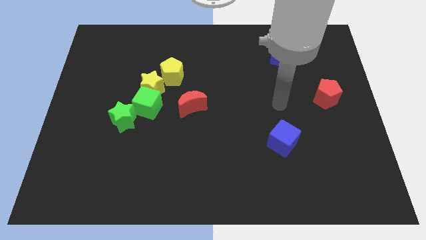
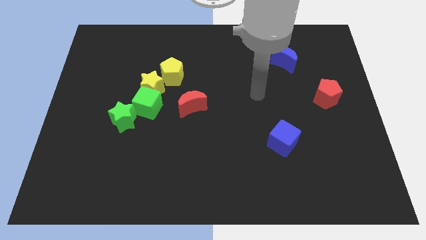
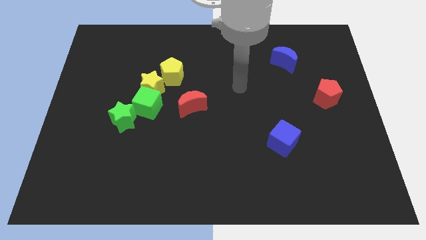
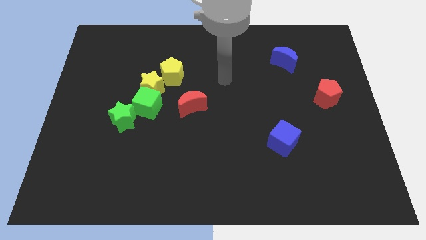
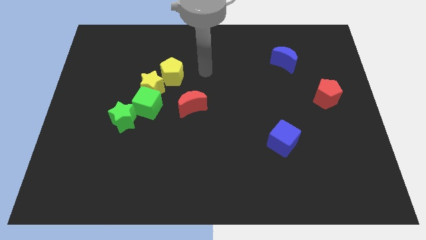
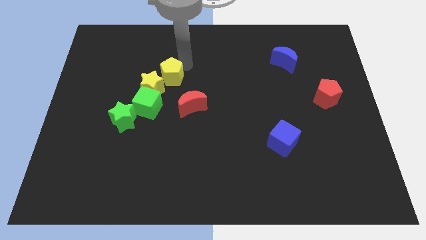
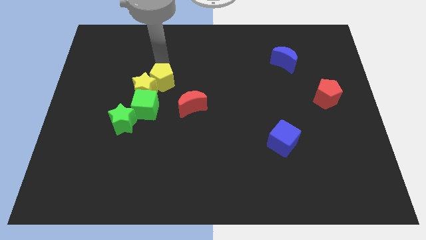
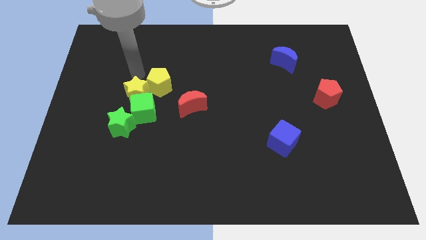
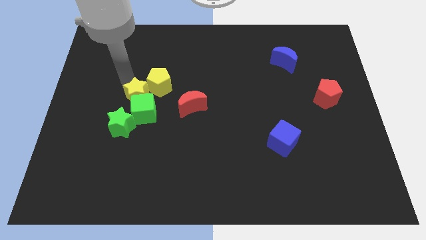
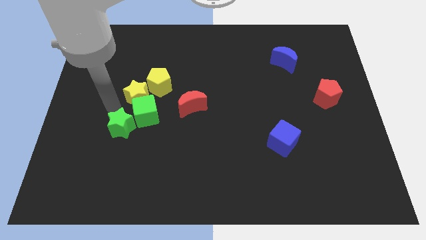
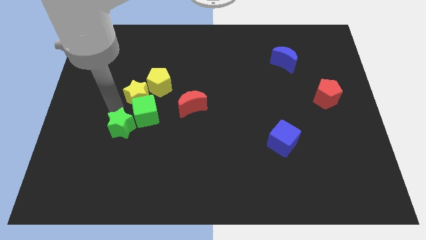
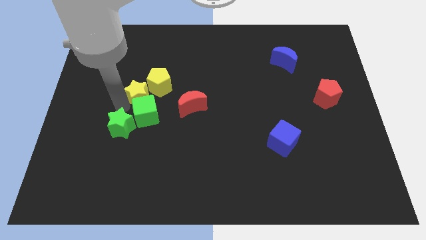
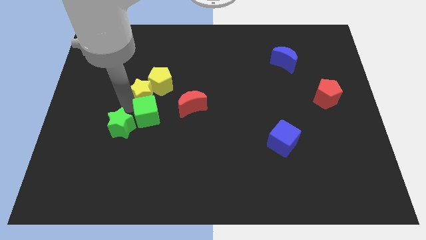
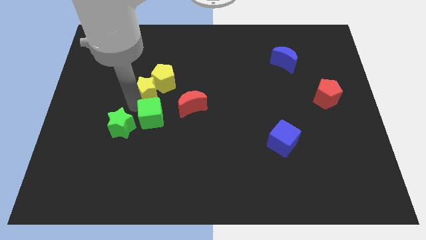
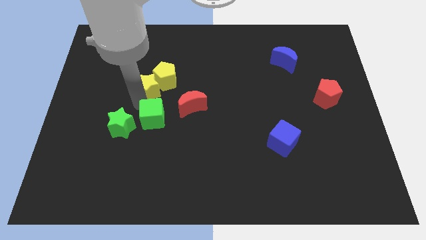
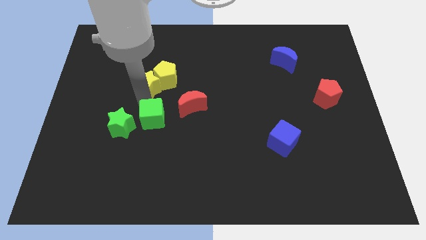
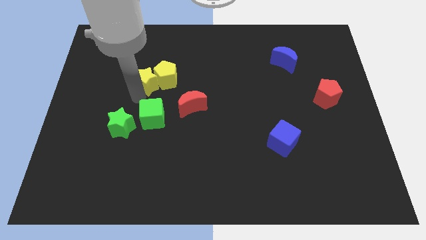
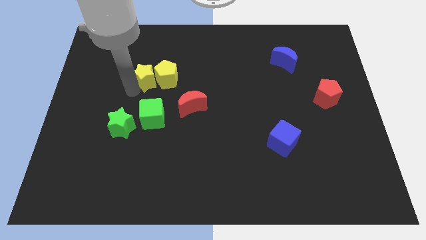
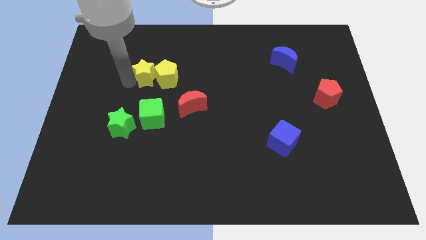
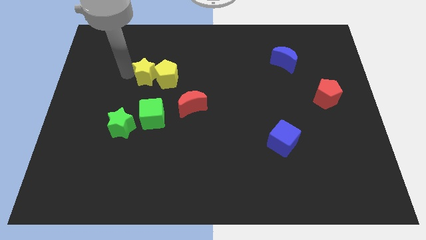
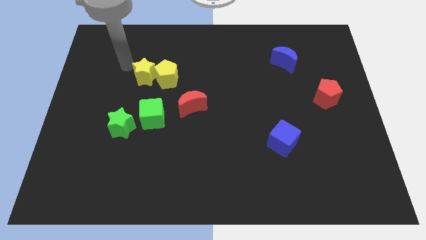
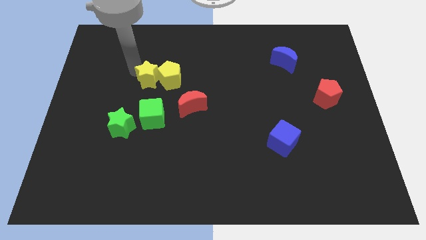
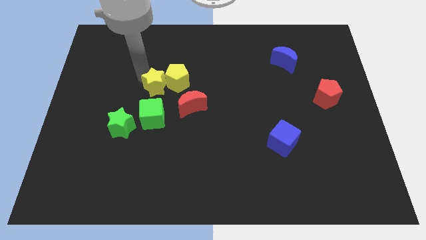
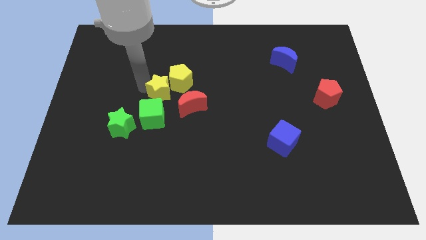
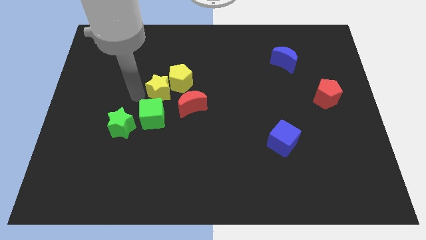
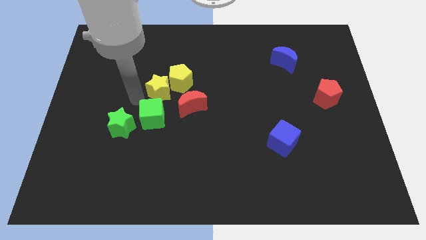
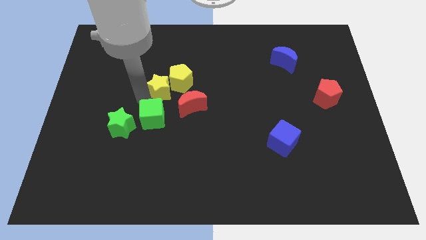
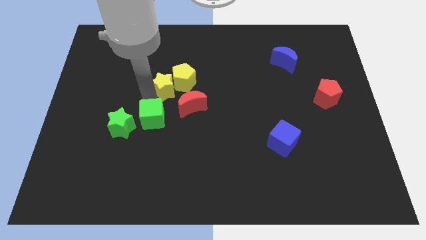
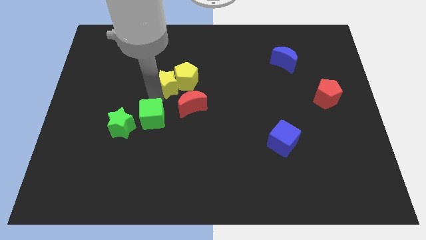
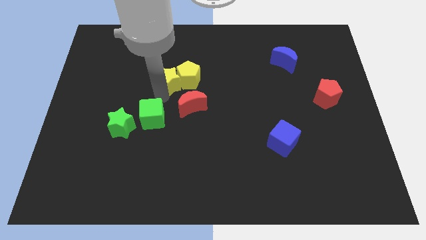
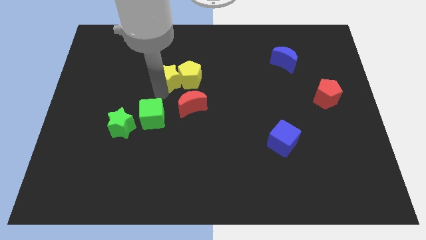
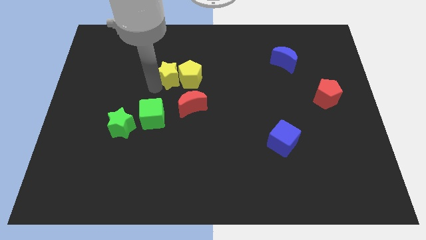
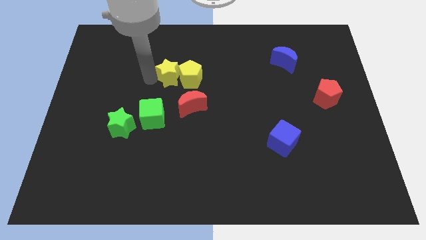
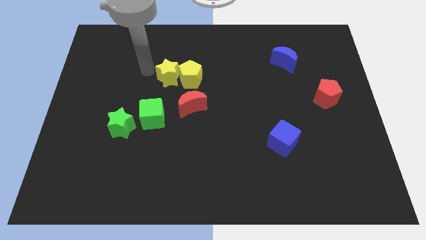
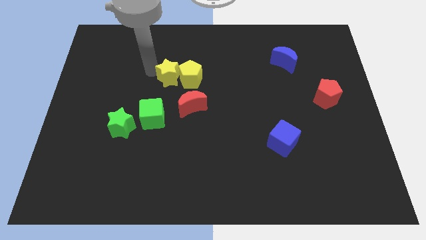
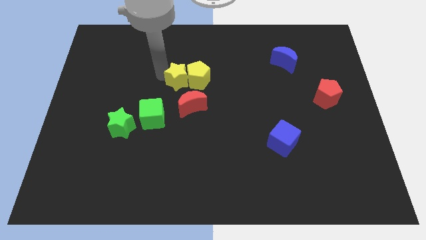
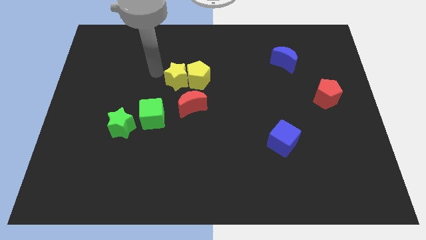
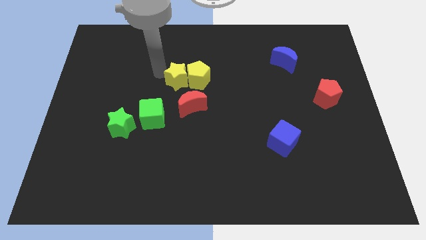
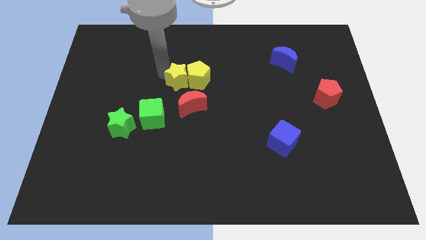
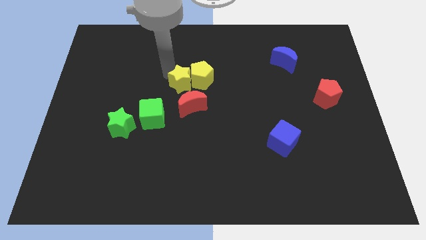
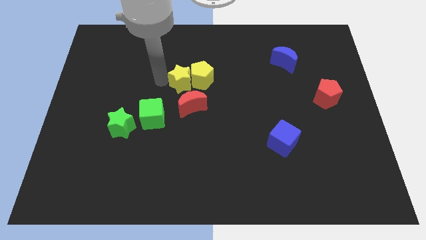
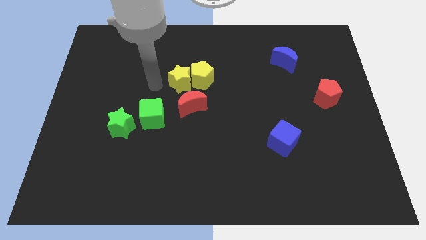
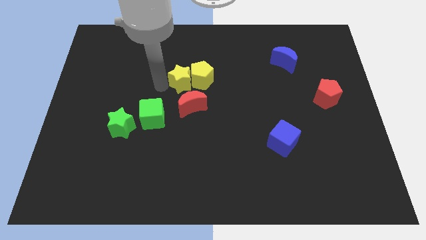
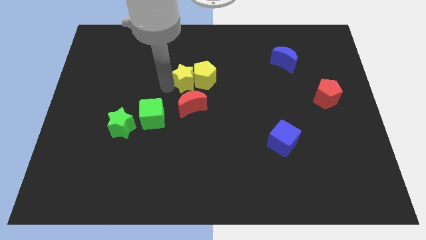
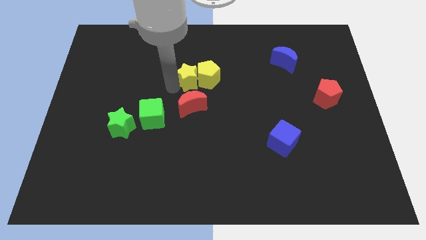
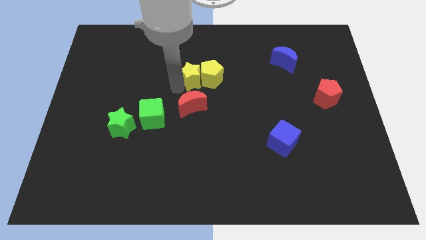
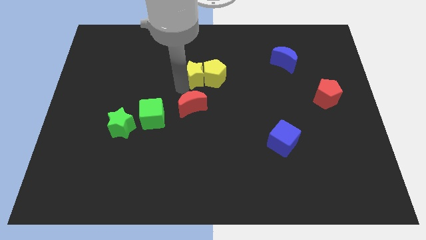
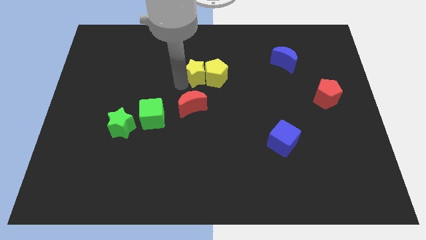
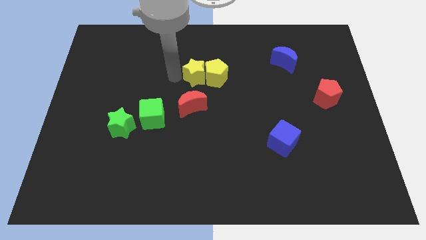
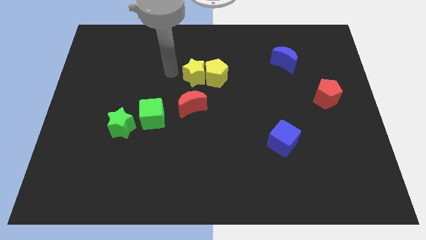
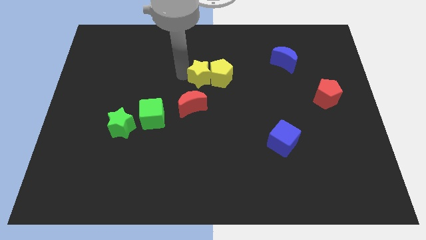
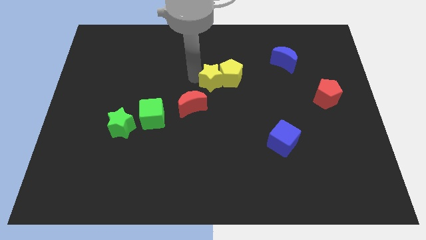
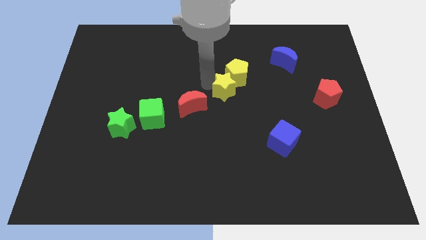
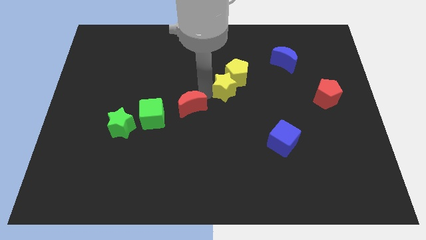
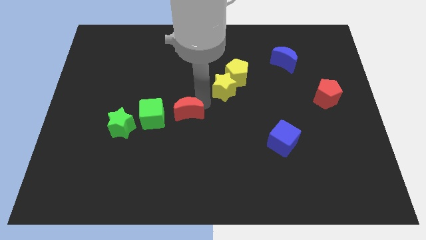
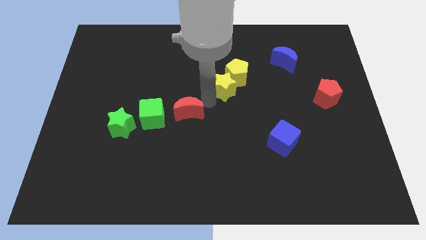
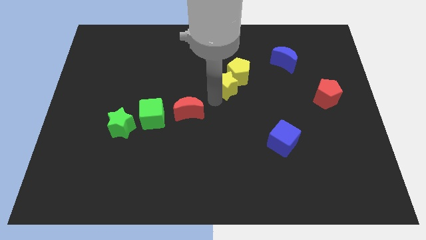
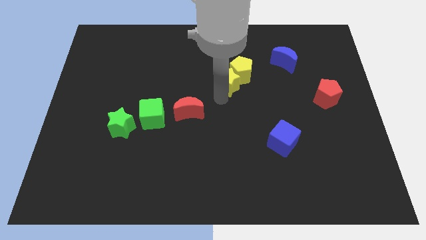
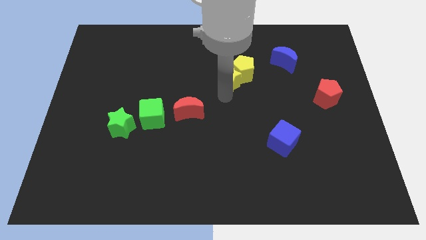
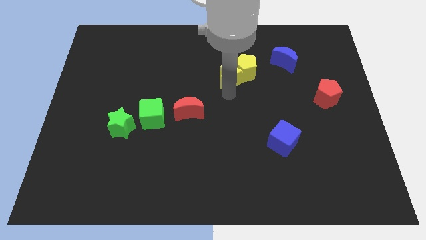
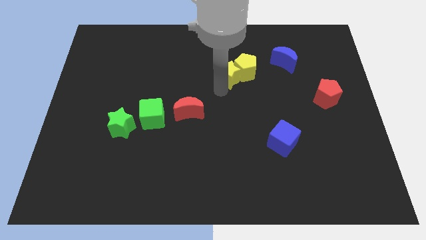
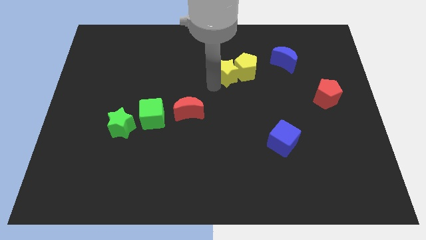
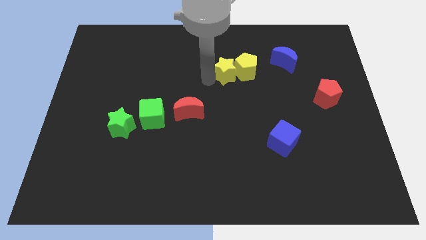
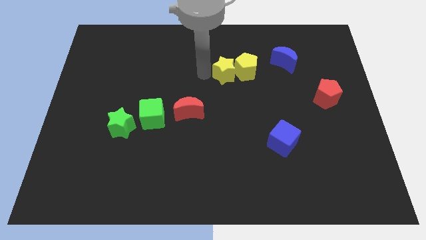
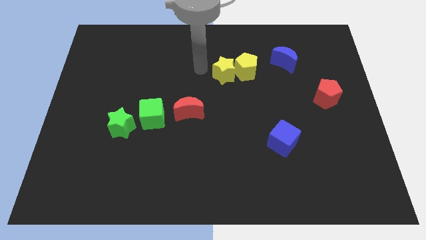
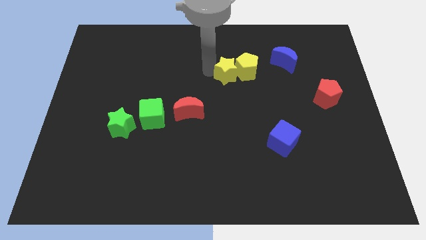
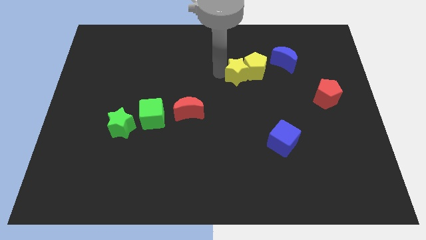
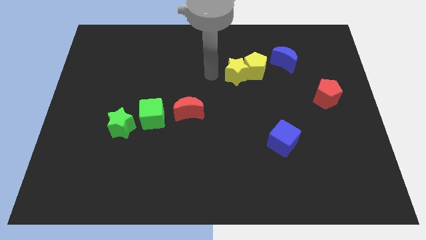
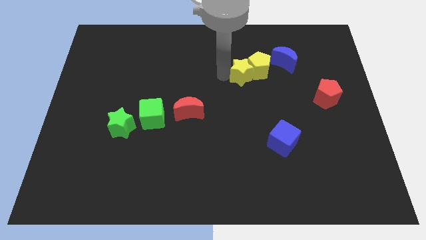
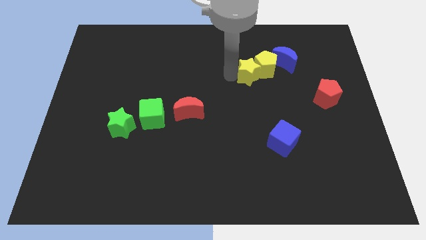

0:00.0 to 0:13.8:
slide the yellow star diagonally down and to the left of the blue moon
